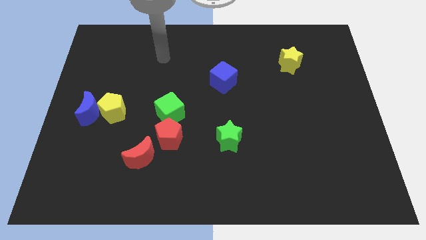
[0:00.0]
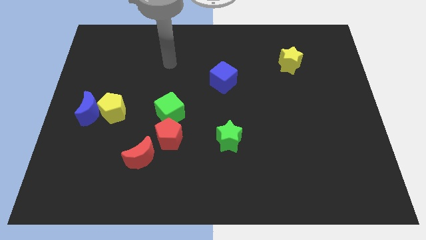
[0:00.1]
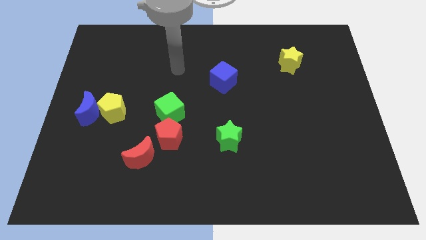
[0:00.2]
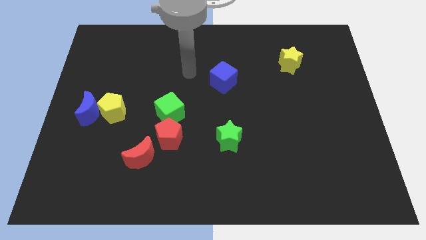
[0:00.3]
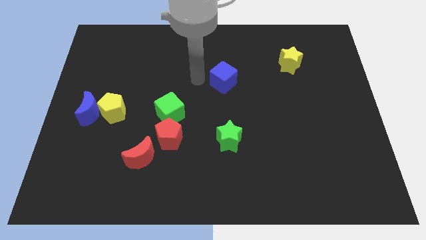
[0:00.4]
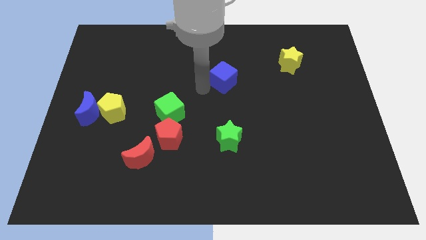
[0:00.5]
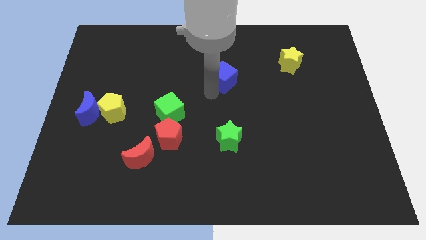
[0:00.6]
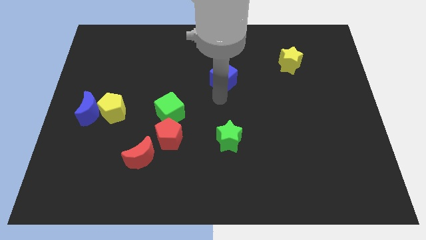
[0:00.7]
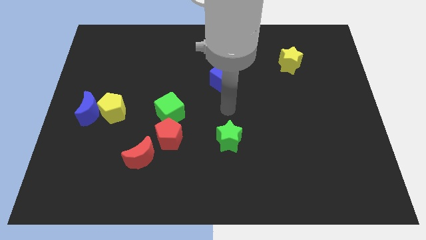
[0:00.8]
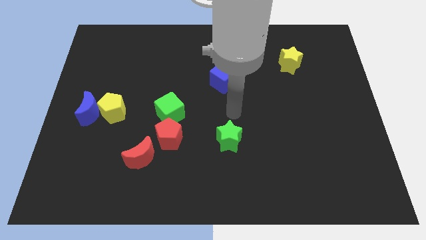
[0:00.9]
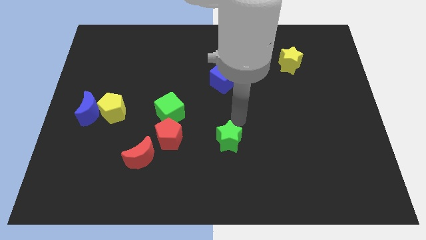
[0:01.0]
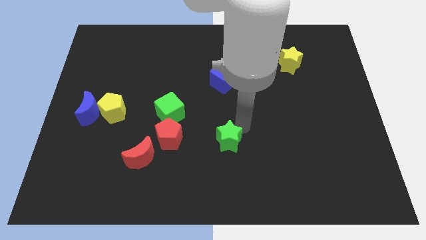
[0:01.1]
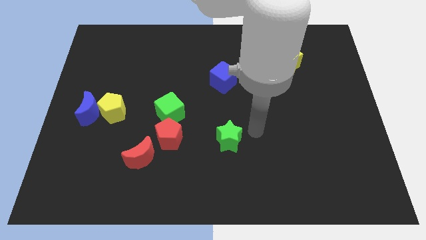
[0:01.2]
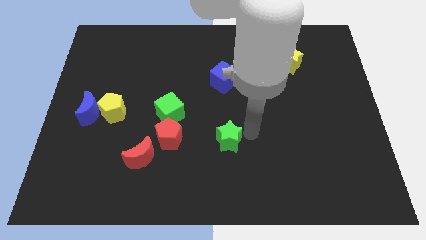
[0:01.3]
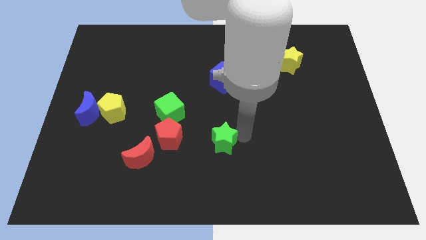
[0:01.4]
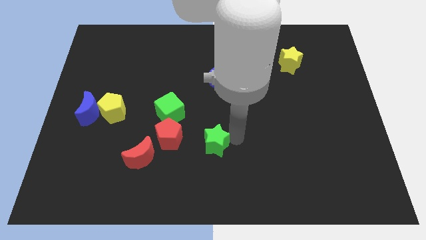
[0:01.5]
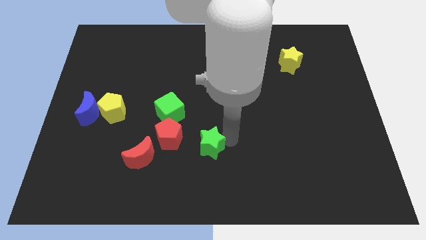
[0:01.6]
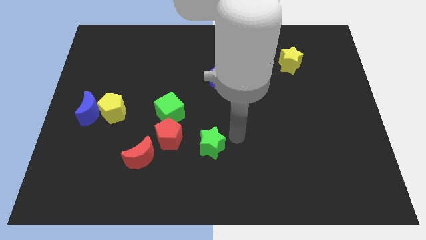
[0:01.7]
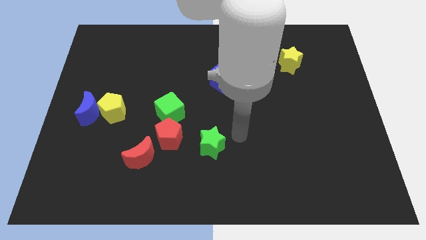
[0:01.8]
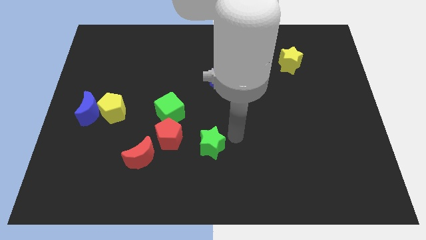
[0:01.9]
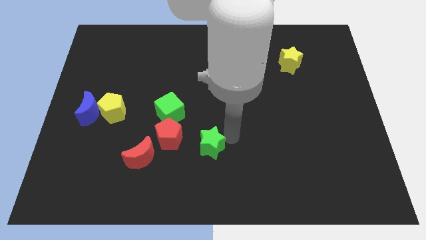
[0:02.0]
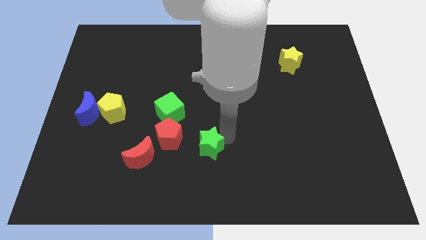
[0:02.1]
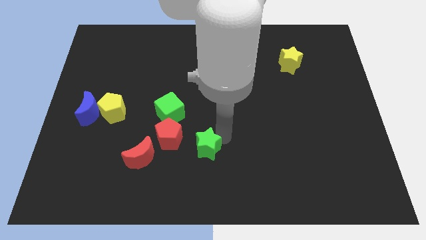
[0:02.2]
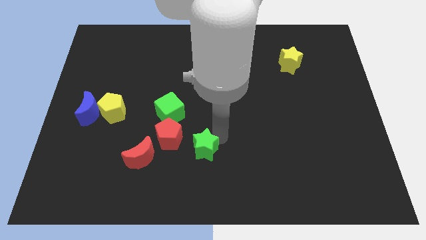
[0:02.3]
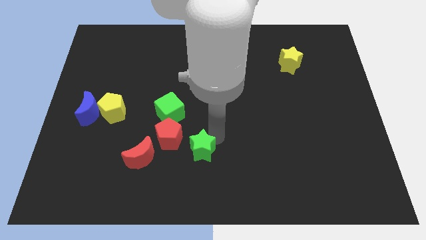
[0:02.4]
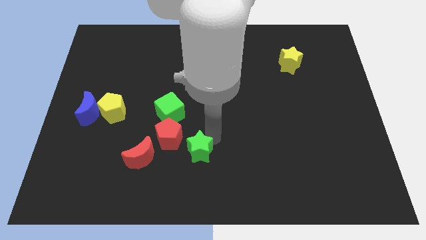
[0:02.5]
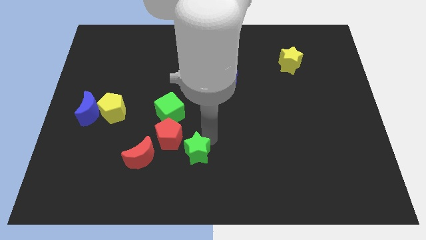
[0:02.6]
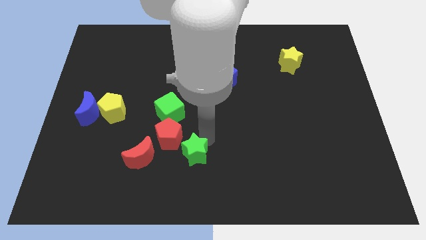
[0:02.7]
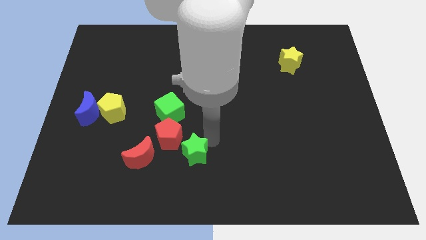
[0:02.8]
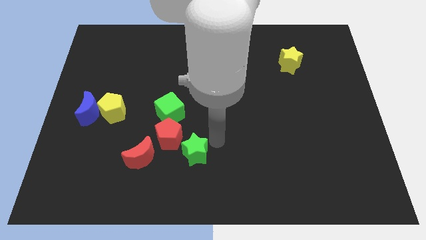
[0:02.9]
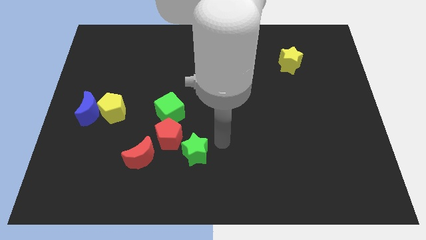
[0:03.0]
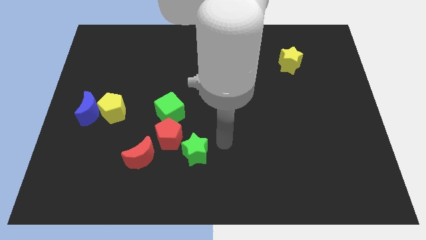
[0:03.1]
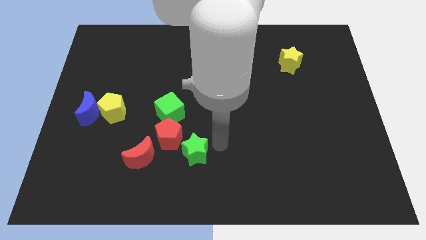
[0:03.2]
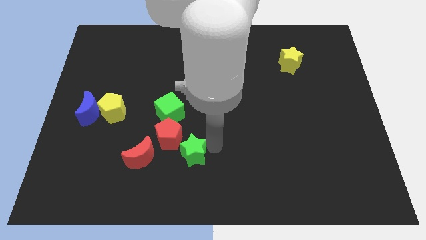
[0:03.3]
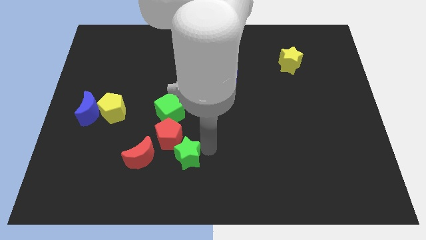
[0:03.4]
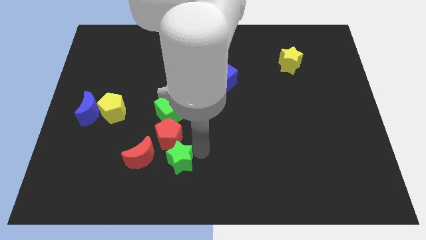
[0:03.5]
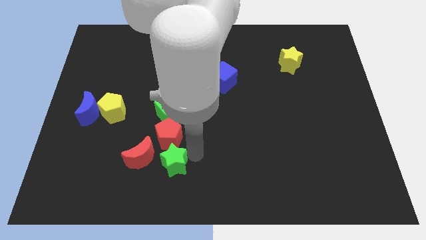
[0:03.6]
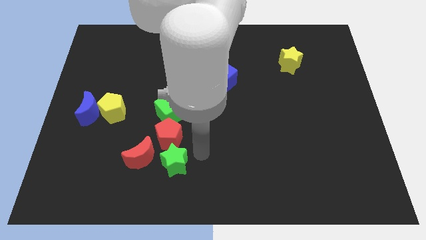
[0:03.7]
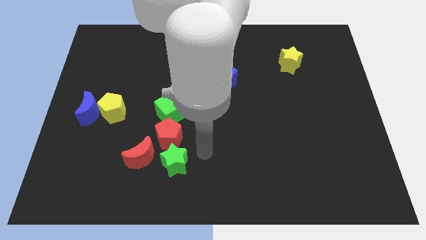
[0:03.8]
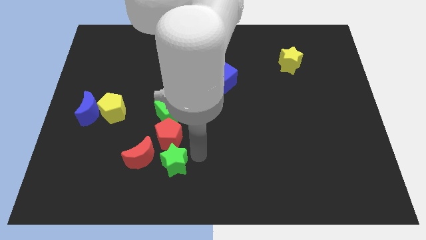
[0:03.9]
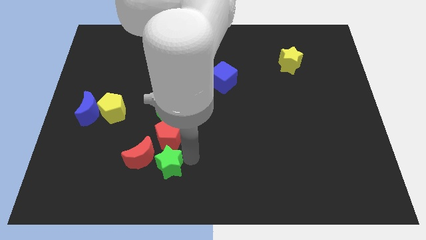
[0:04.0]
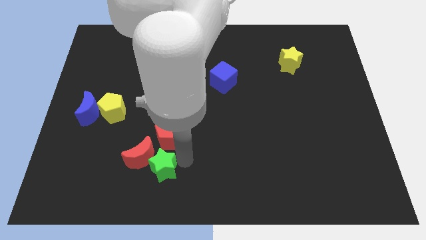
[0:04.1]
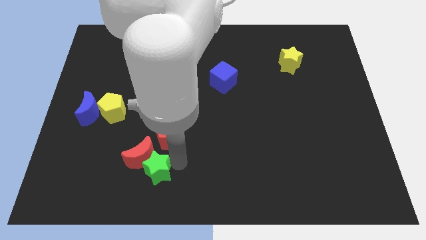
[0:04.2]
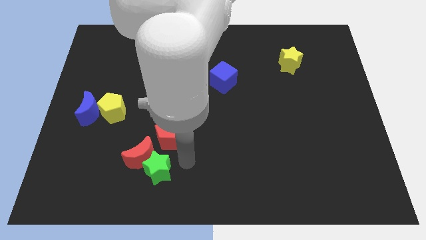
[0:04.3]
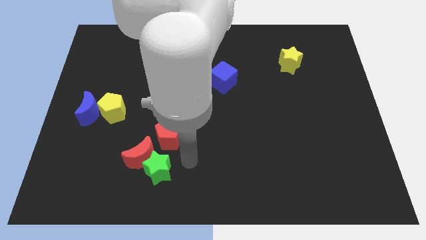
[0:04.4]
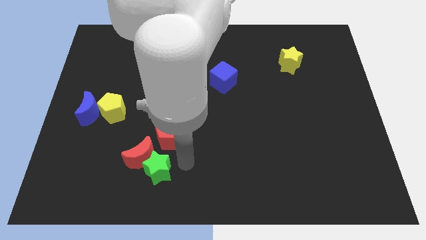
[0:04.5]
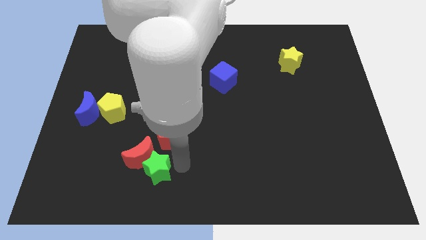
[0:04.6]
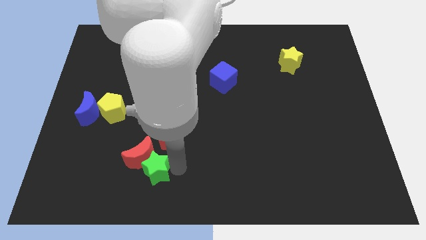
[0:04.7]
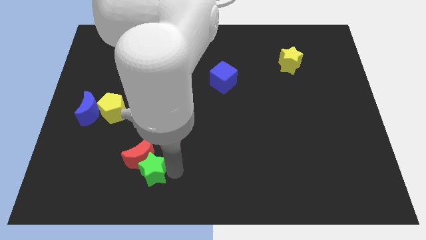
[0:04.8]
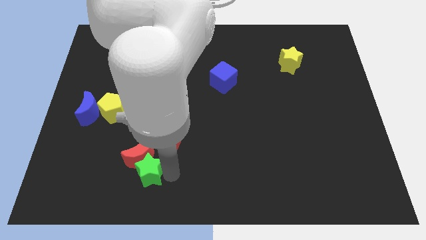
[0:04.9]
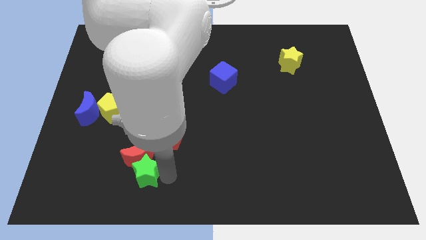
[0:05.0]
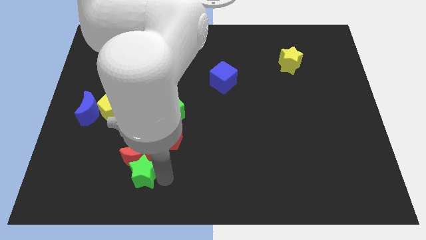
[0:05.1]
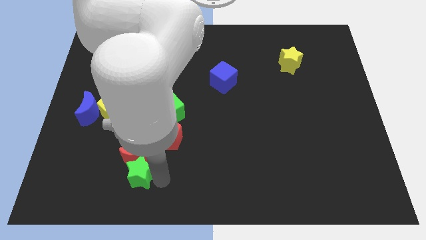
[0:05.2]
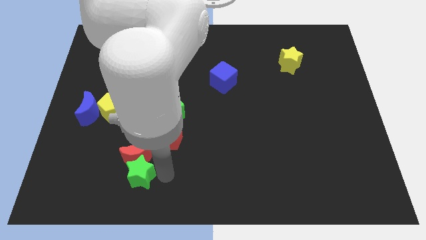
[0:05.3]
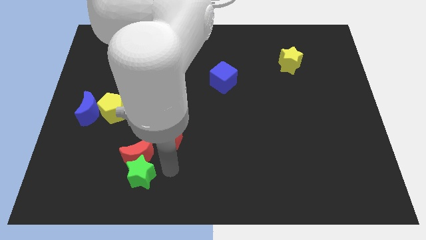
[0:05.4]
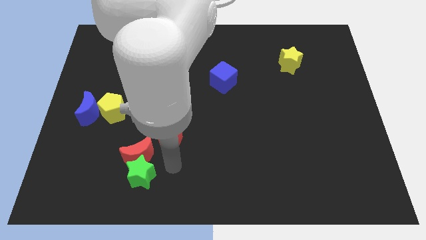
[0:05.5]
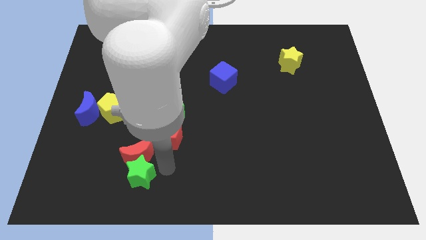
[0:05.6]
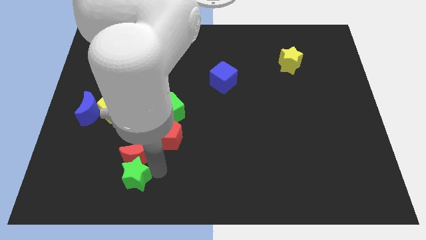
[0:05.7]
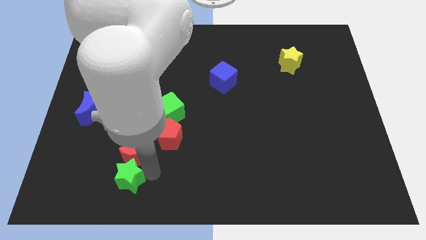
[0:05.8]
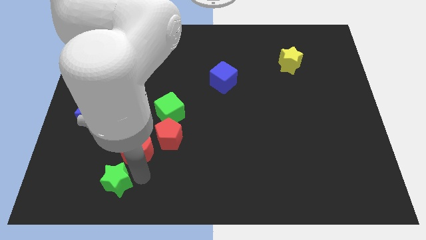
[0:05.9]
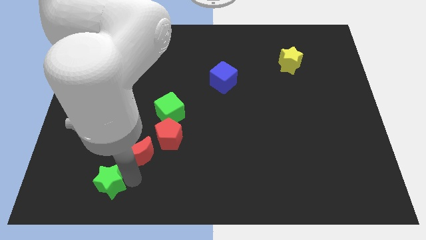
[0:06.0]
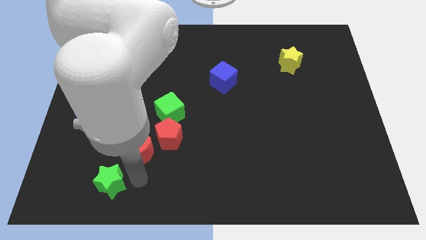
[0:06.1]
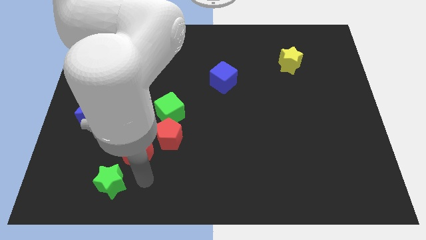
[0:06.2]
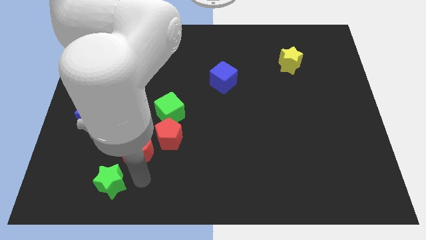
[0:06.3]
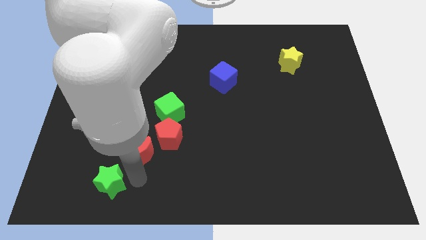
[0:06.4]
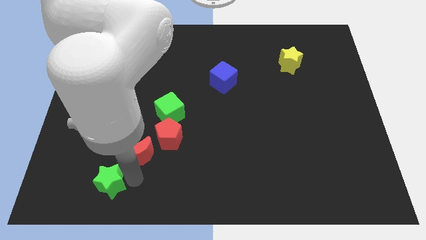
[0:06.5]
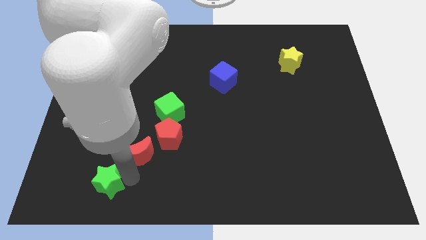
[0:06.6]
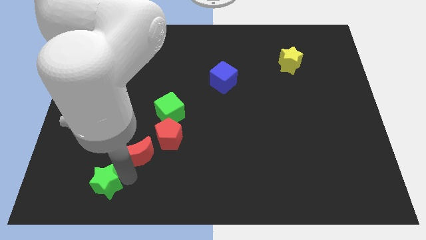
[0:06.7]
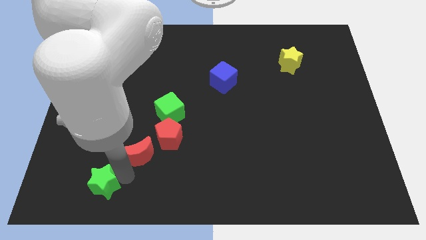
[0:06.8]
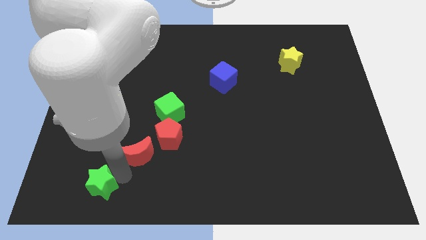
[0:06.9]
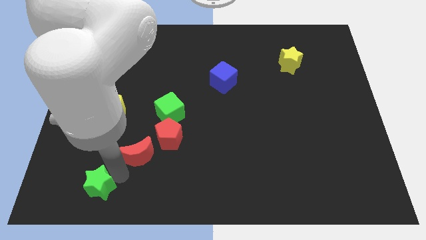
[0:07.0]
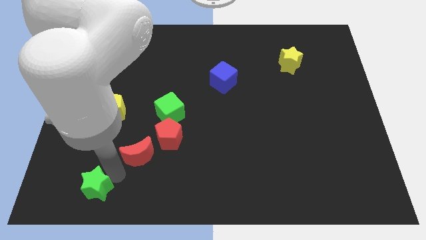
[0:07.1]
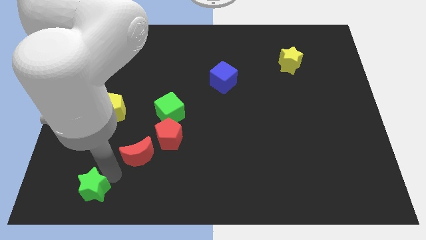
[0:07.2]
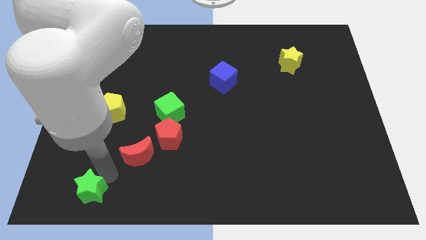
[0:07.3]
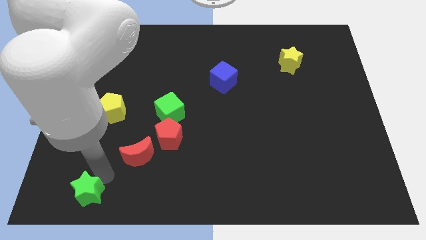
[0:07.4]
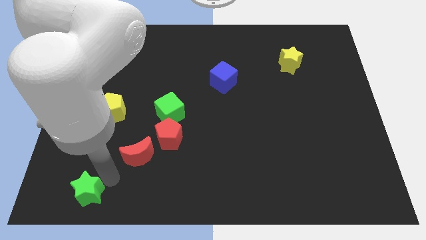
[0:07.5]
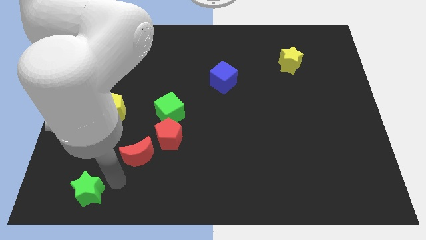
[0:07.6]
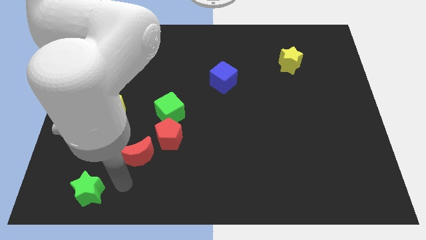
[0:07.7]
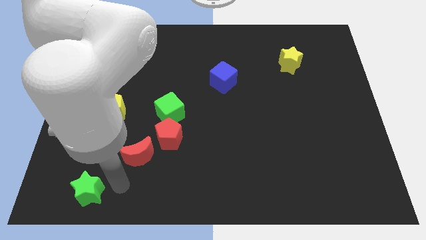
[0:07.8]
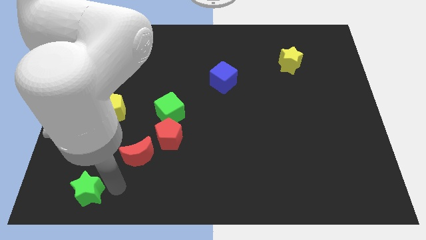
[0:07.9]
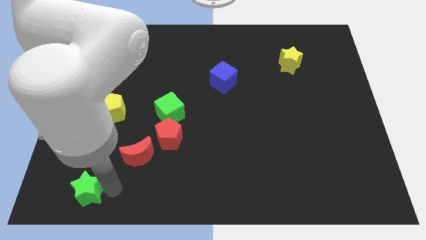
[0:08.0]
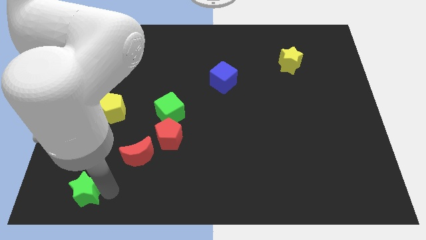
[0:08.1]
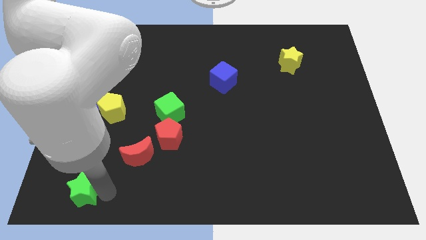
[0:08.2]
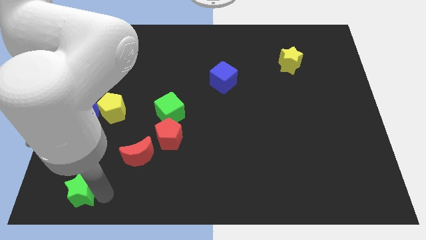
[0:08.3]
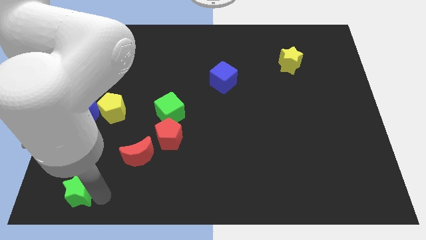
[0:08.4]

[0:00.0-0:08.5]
move the green star to the bottom left of the board
